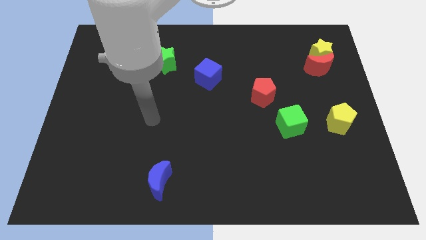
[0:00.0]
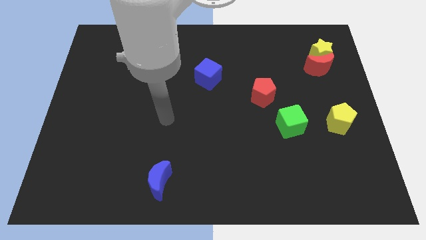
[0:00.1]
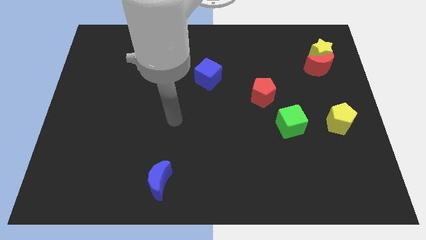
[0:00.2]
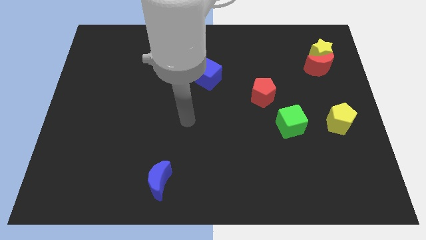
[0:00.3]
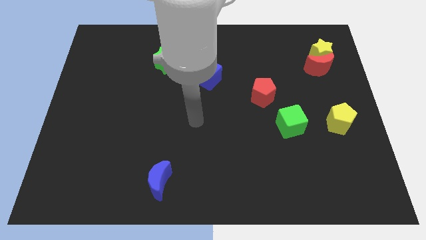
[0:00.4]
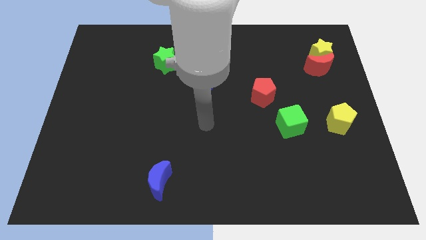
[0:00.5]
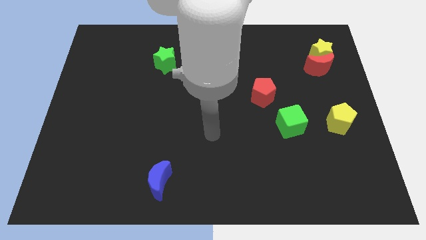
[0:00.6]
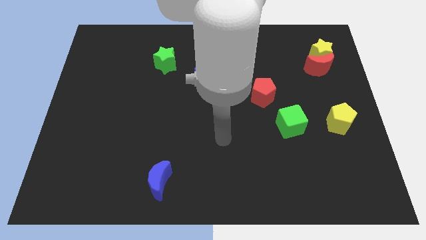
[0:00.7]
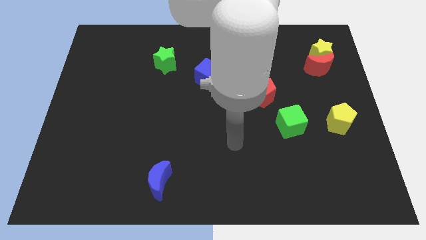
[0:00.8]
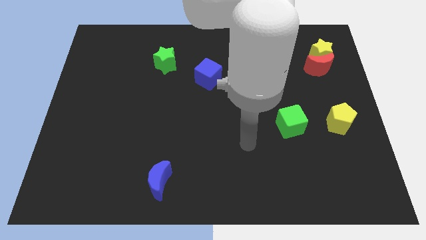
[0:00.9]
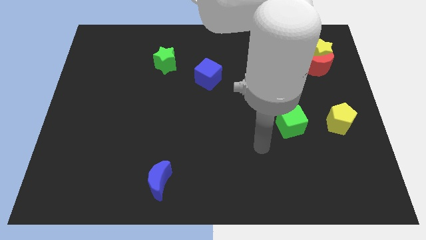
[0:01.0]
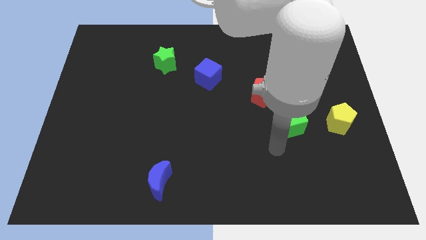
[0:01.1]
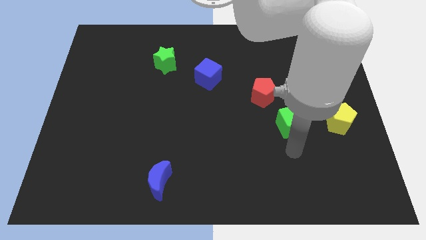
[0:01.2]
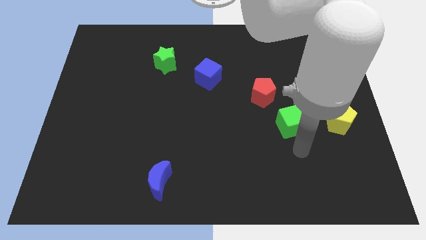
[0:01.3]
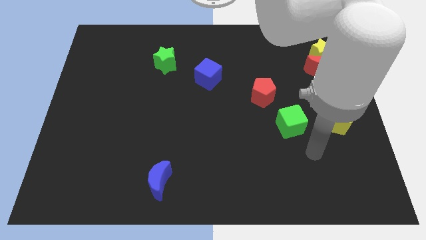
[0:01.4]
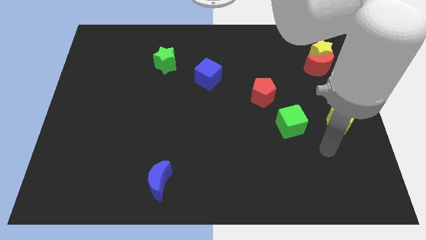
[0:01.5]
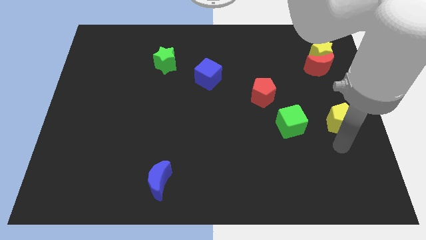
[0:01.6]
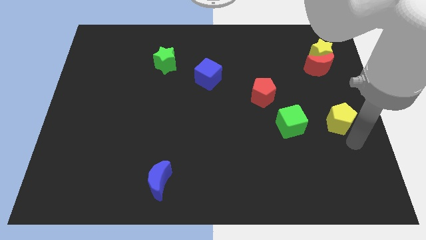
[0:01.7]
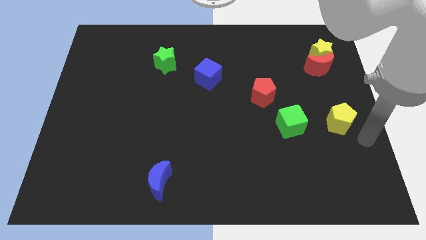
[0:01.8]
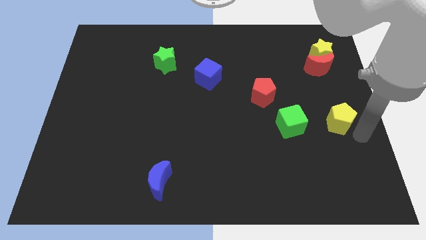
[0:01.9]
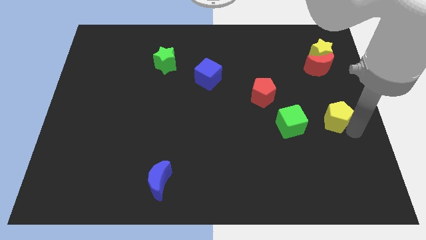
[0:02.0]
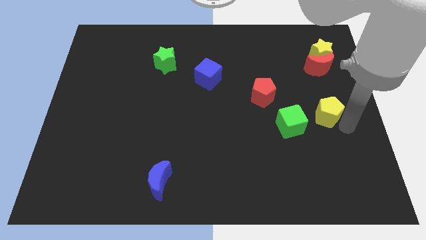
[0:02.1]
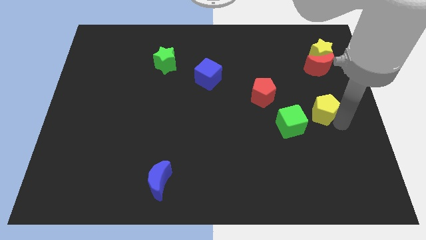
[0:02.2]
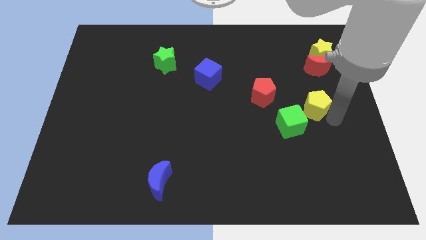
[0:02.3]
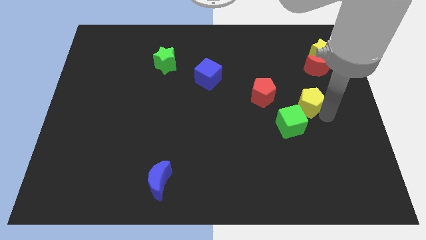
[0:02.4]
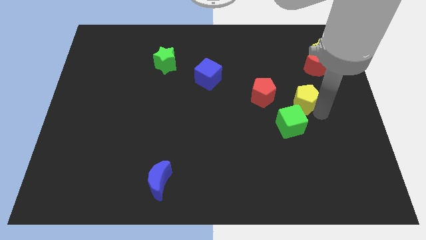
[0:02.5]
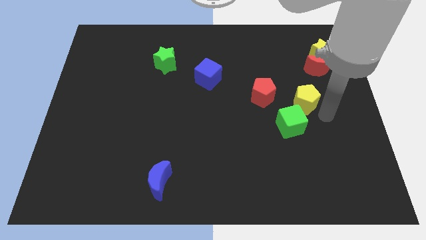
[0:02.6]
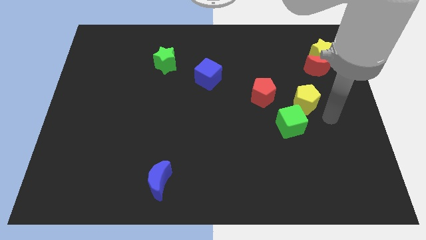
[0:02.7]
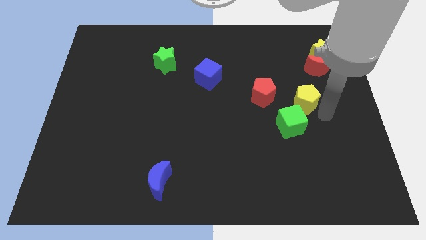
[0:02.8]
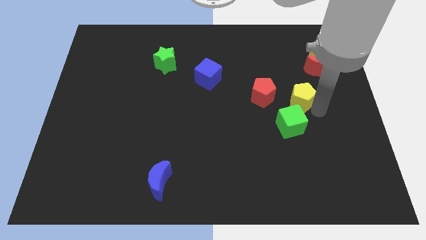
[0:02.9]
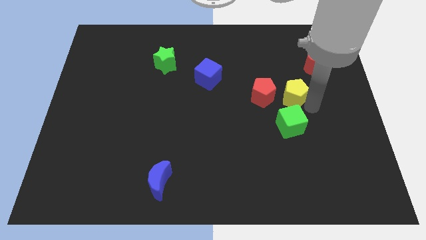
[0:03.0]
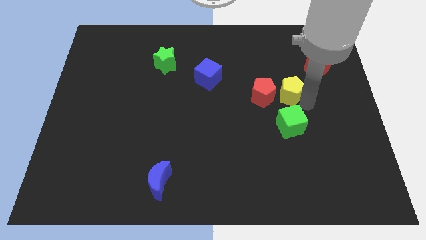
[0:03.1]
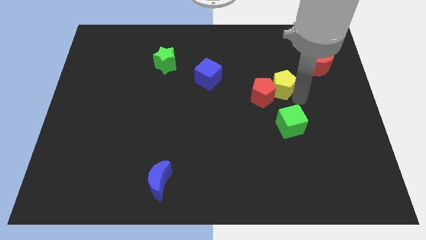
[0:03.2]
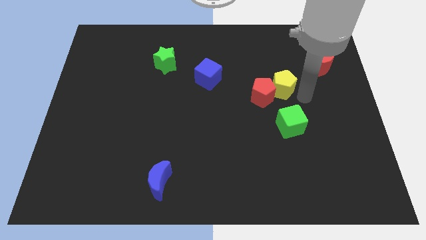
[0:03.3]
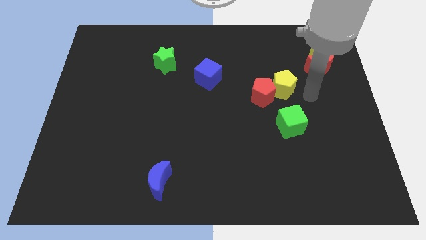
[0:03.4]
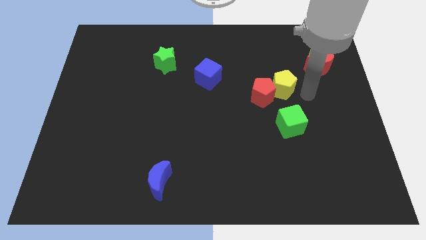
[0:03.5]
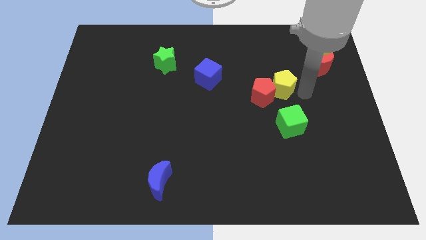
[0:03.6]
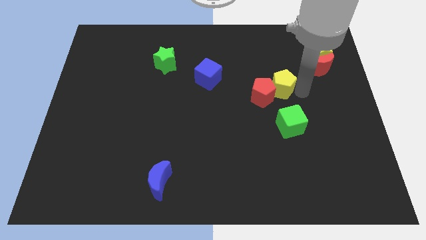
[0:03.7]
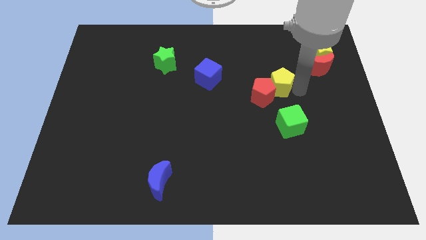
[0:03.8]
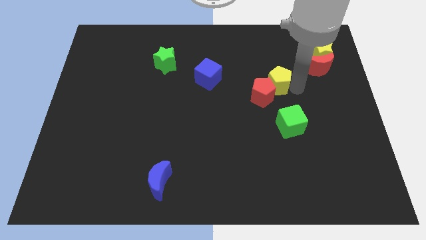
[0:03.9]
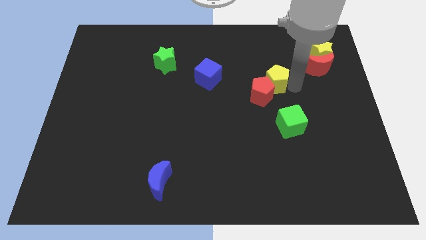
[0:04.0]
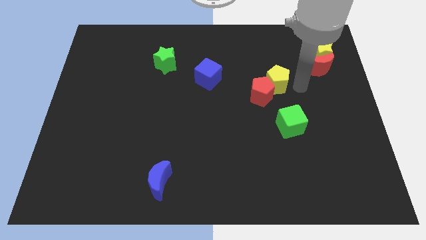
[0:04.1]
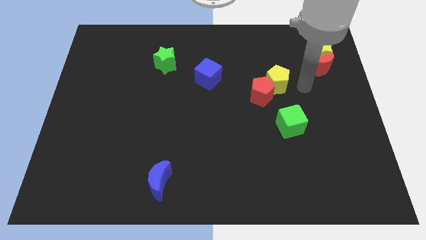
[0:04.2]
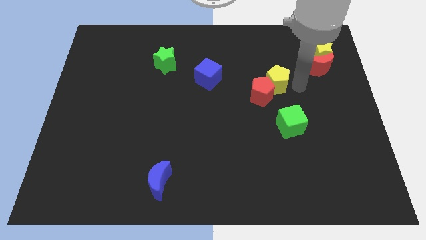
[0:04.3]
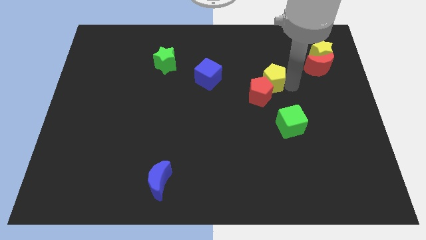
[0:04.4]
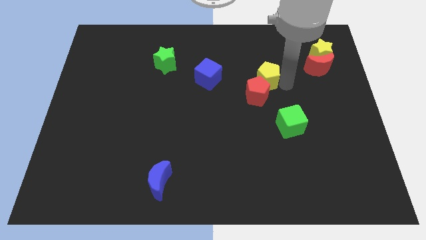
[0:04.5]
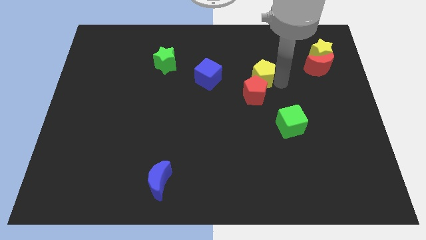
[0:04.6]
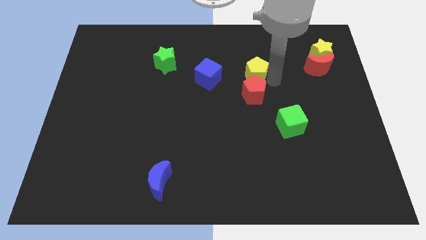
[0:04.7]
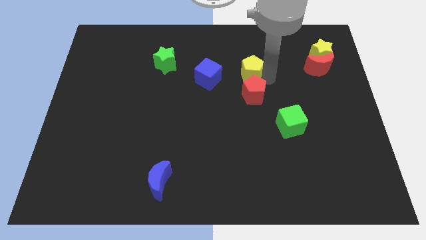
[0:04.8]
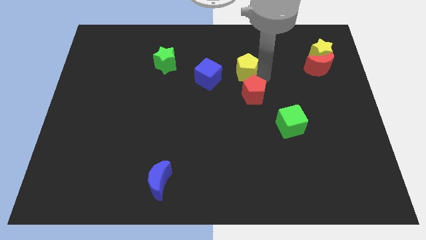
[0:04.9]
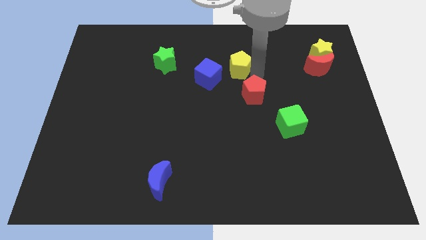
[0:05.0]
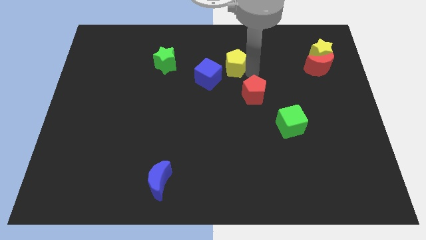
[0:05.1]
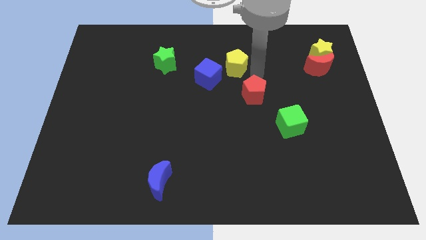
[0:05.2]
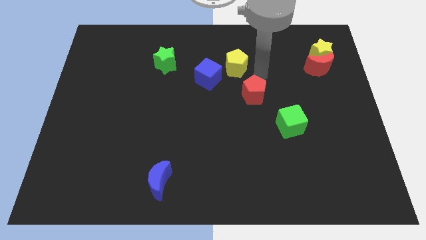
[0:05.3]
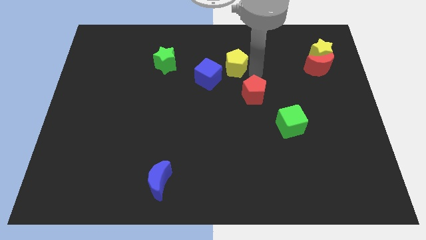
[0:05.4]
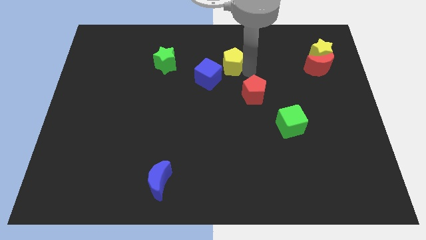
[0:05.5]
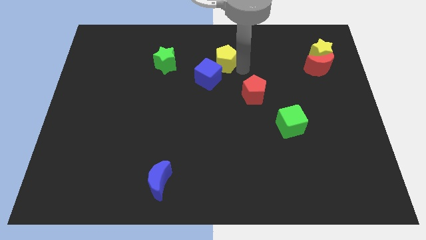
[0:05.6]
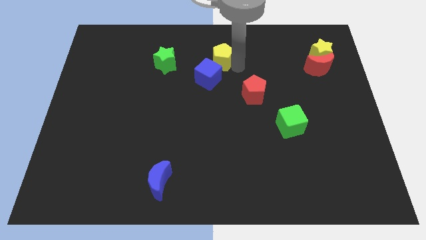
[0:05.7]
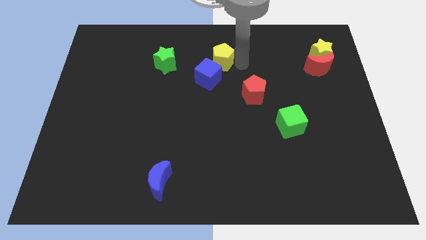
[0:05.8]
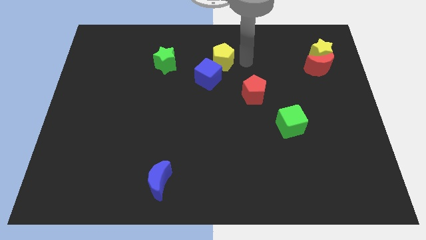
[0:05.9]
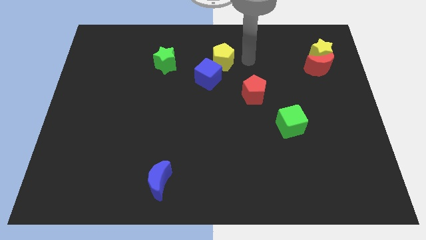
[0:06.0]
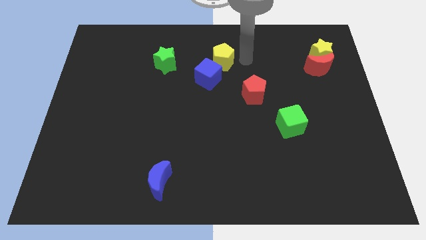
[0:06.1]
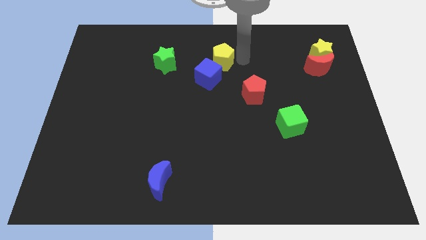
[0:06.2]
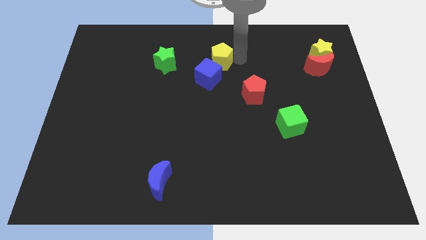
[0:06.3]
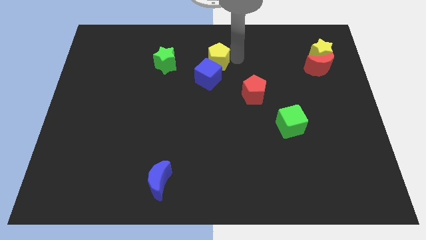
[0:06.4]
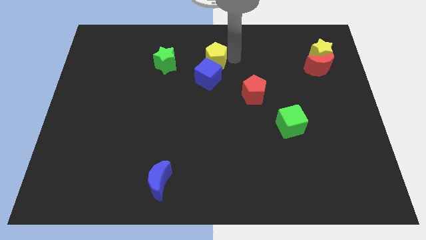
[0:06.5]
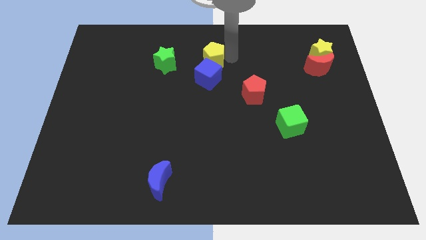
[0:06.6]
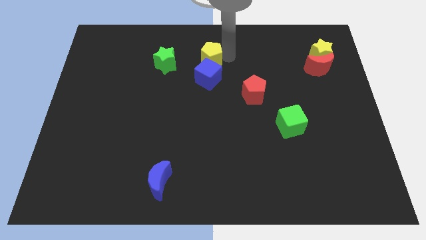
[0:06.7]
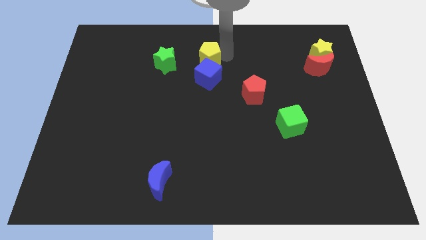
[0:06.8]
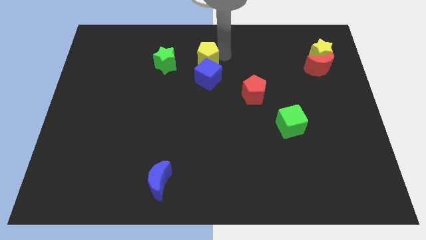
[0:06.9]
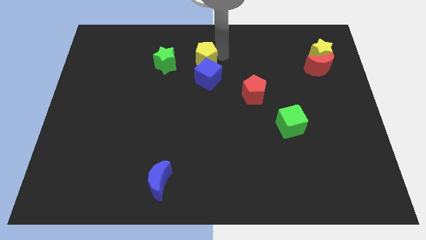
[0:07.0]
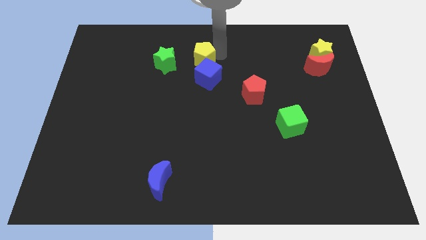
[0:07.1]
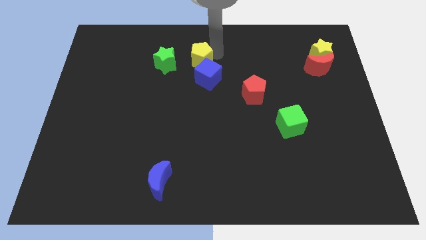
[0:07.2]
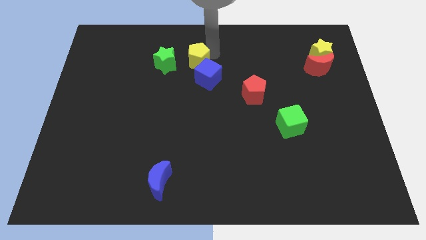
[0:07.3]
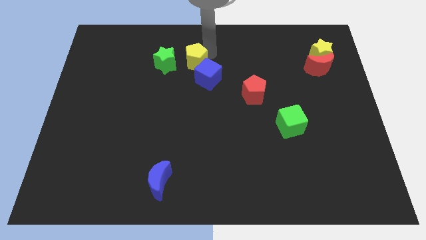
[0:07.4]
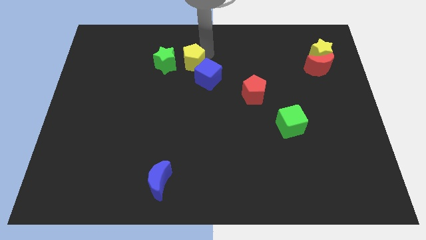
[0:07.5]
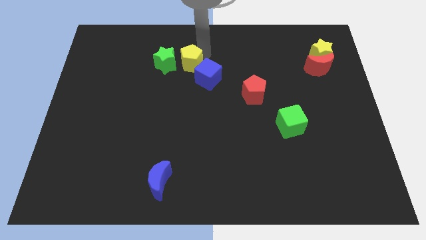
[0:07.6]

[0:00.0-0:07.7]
put the yellow pentagon to the bottom right side of the green star
